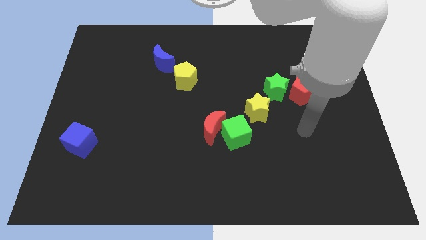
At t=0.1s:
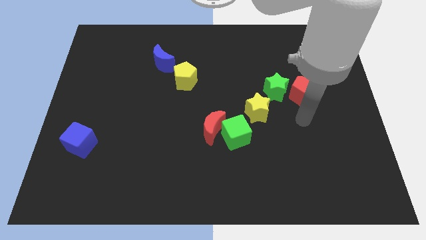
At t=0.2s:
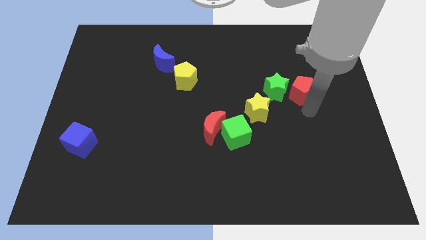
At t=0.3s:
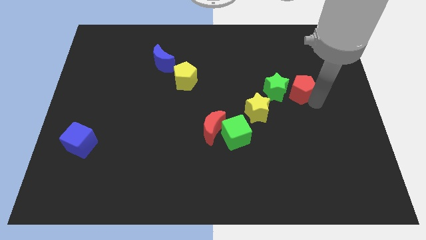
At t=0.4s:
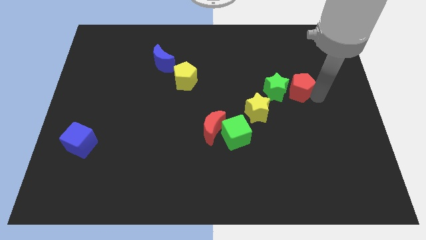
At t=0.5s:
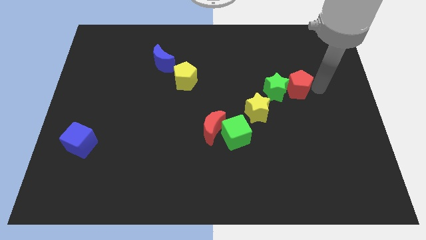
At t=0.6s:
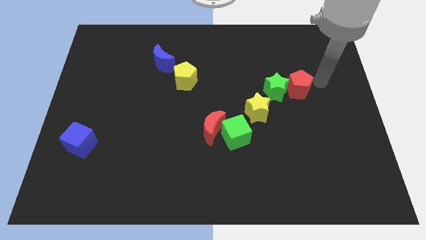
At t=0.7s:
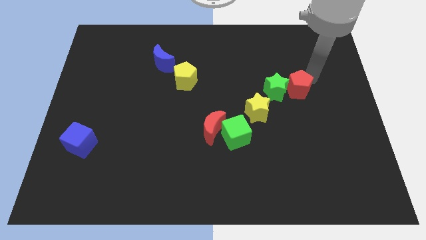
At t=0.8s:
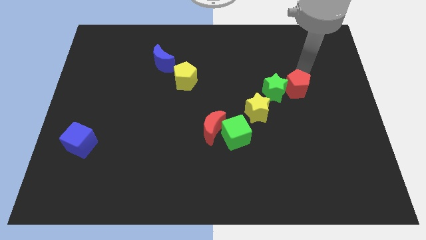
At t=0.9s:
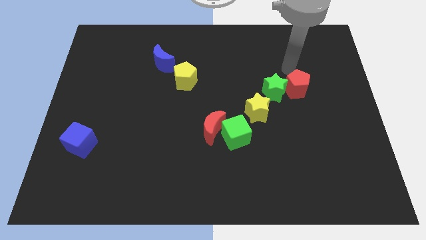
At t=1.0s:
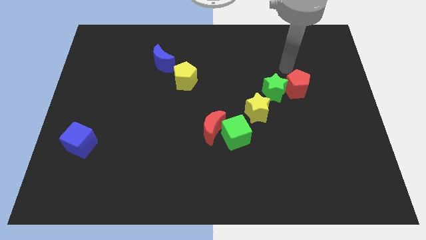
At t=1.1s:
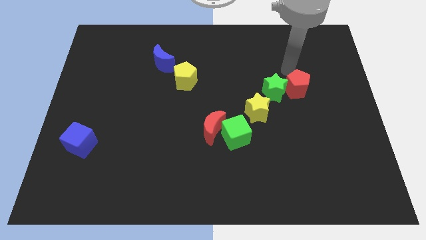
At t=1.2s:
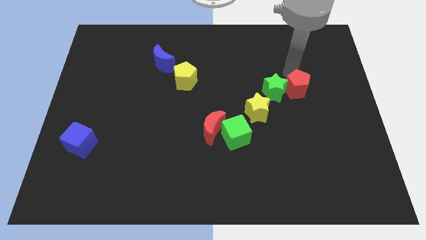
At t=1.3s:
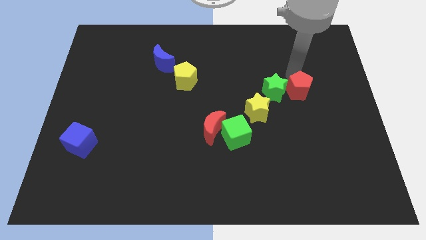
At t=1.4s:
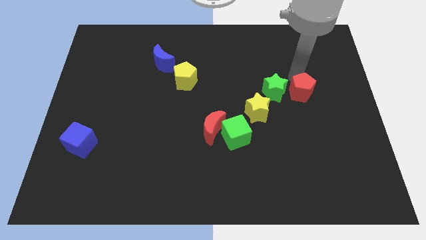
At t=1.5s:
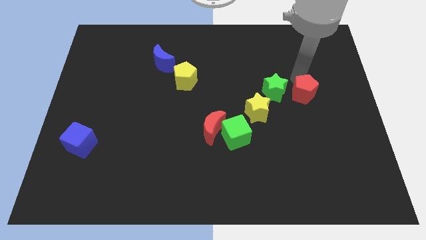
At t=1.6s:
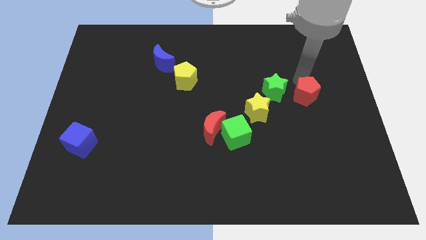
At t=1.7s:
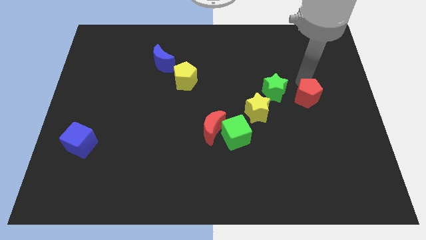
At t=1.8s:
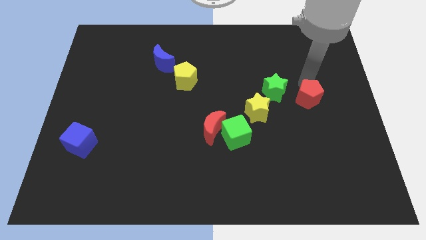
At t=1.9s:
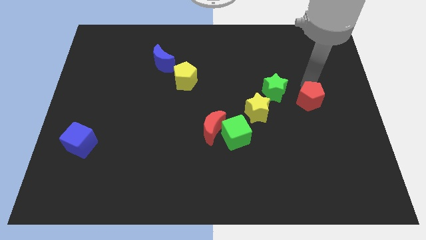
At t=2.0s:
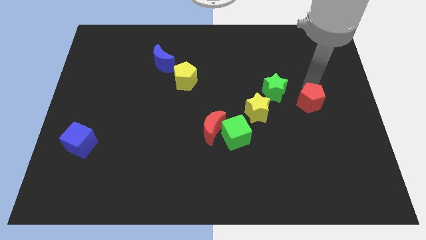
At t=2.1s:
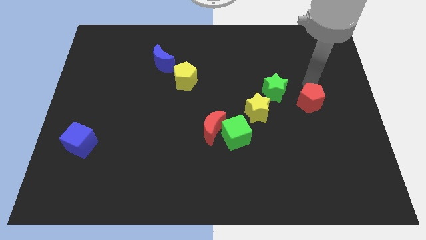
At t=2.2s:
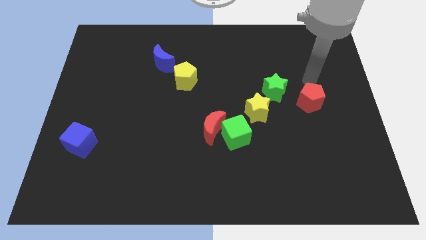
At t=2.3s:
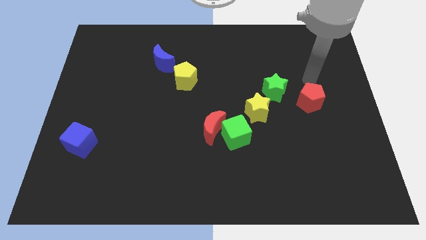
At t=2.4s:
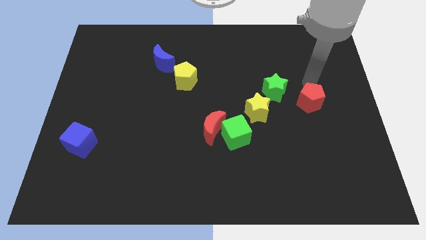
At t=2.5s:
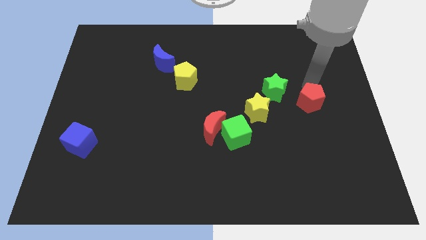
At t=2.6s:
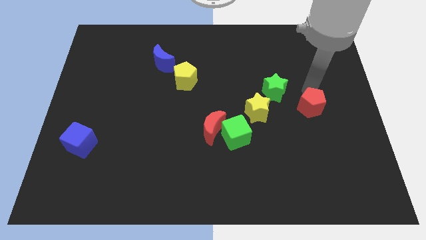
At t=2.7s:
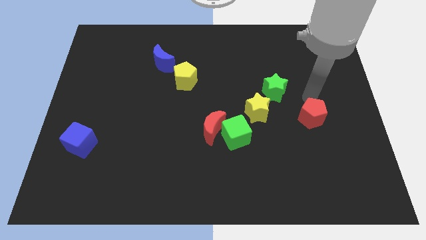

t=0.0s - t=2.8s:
slide the red pentagon downwards a bit

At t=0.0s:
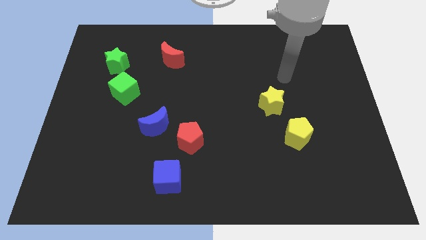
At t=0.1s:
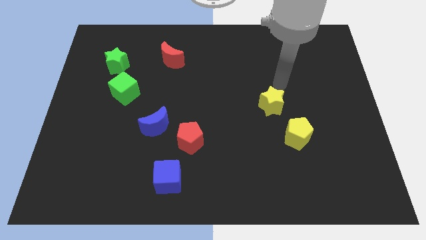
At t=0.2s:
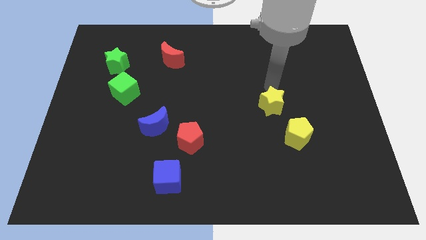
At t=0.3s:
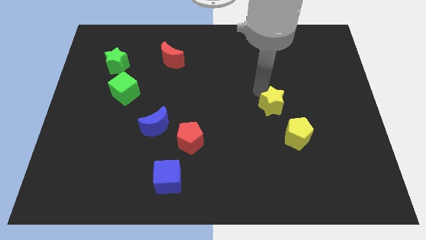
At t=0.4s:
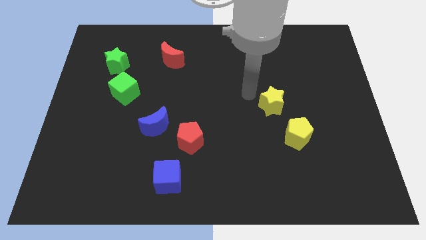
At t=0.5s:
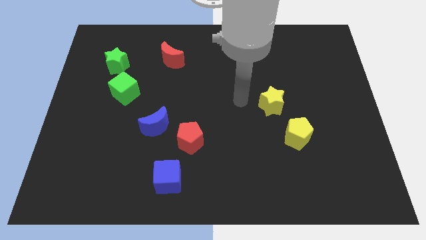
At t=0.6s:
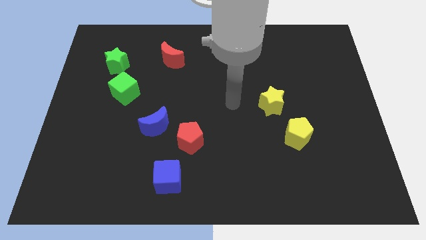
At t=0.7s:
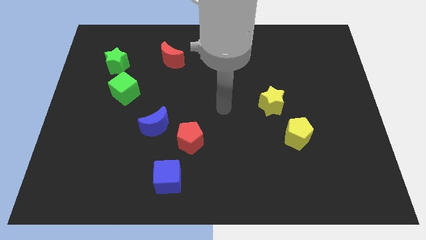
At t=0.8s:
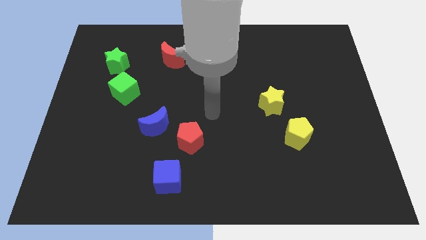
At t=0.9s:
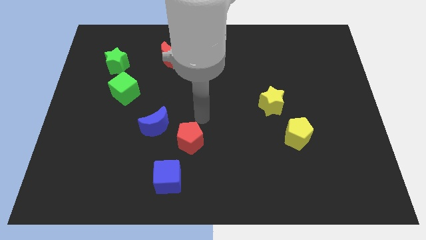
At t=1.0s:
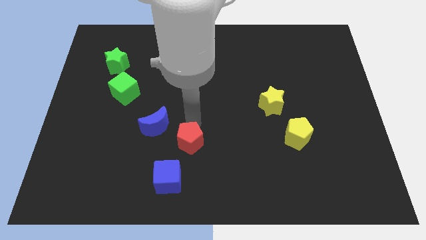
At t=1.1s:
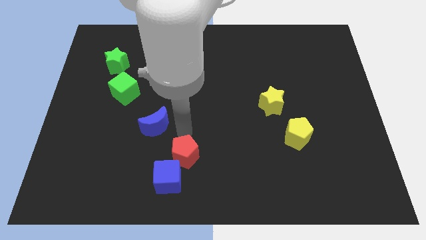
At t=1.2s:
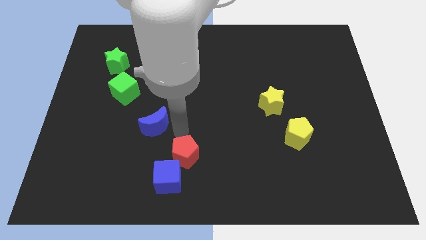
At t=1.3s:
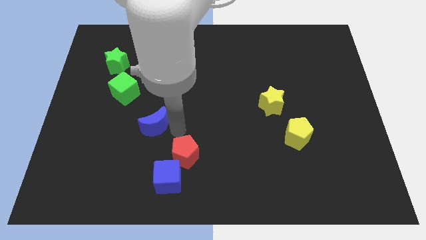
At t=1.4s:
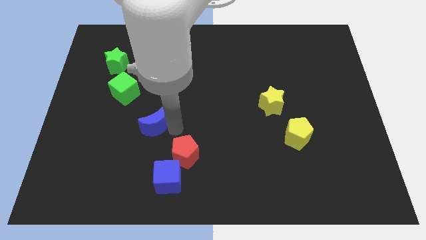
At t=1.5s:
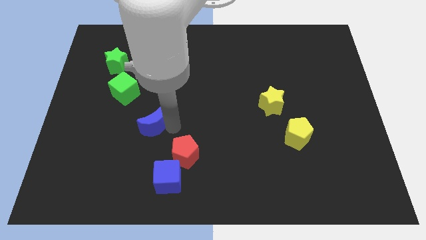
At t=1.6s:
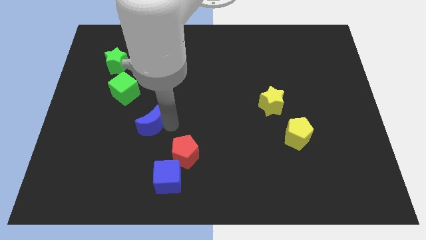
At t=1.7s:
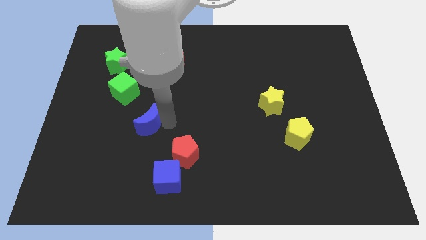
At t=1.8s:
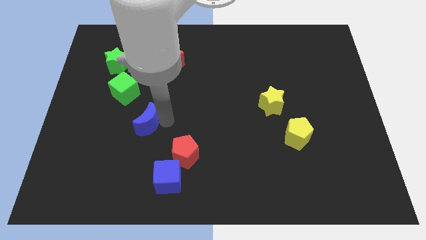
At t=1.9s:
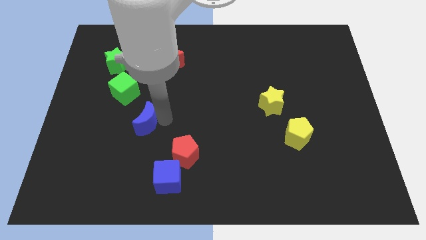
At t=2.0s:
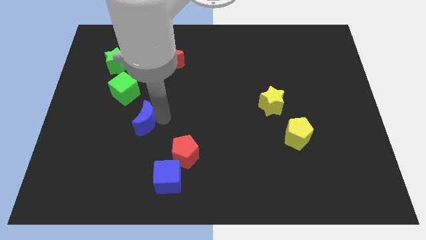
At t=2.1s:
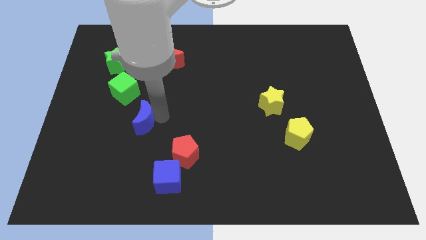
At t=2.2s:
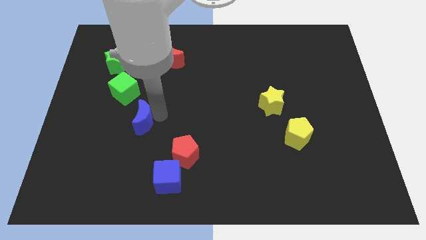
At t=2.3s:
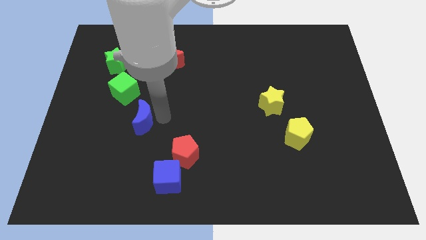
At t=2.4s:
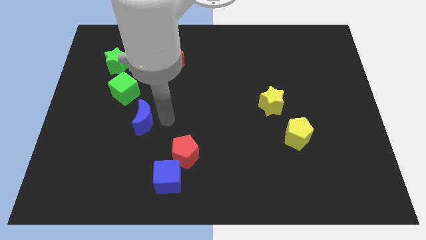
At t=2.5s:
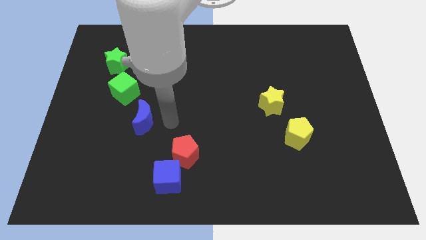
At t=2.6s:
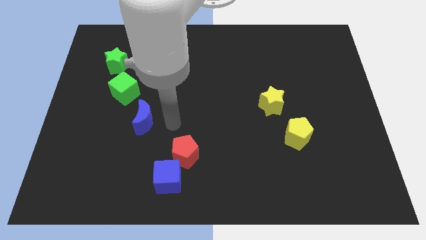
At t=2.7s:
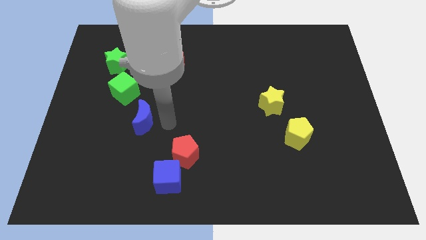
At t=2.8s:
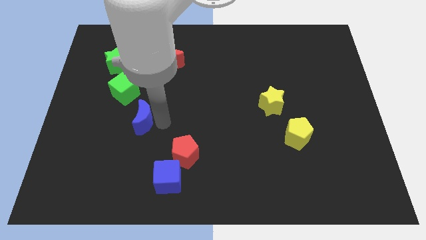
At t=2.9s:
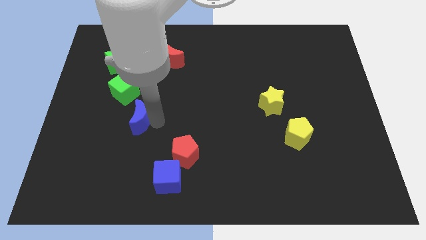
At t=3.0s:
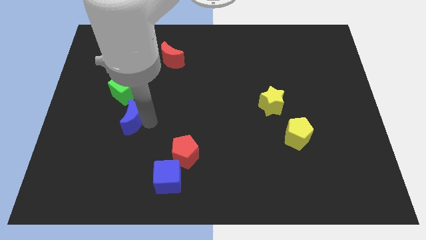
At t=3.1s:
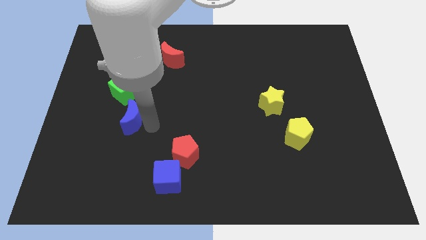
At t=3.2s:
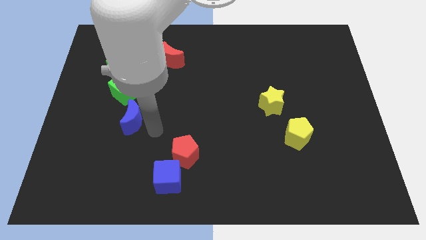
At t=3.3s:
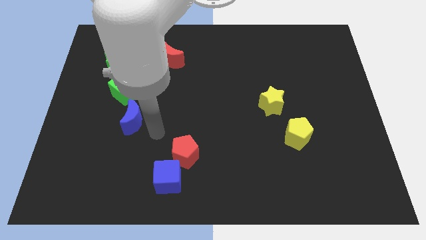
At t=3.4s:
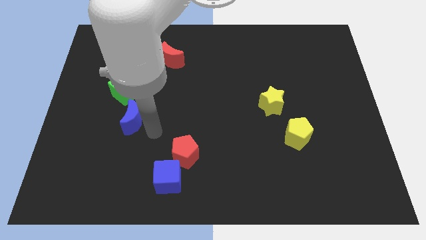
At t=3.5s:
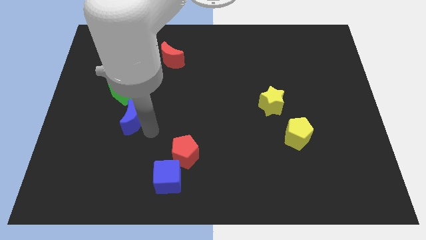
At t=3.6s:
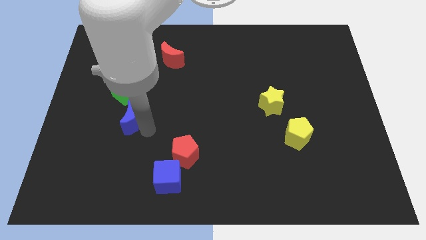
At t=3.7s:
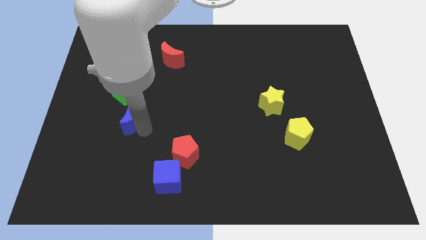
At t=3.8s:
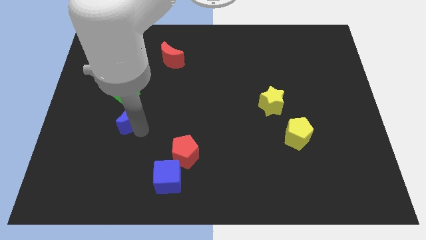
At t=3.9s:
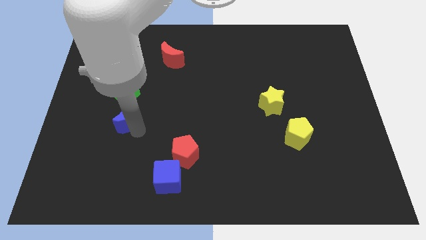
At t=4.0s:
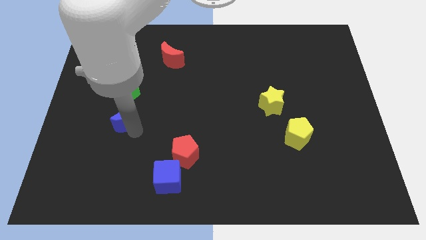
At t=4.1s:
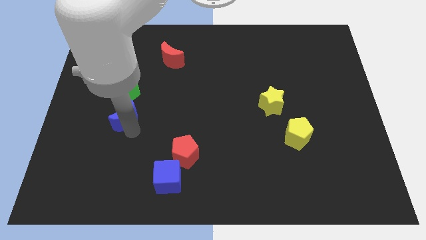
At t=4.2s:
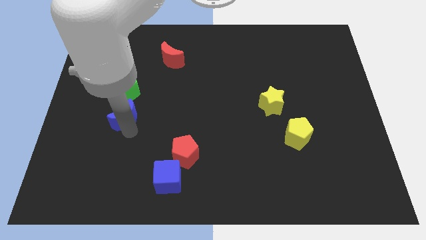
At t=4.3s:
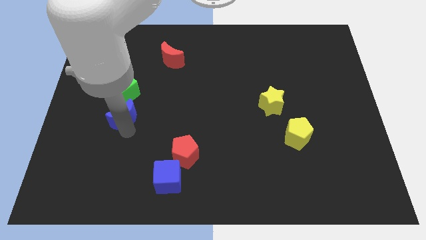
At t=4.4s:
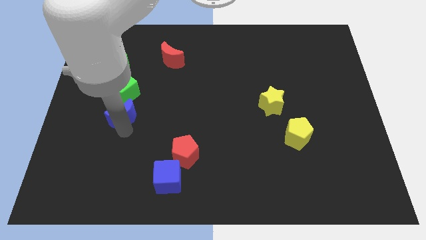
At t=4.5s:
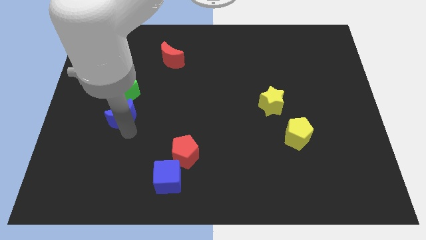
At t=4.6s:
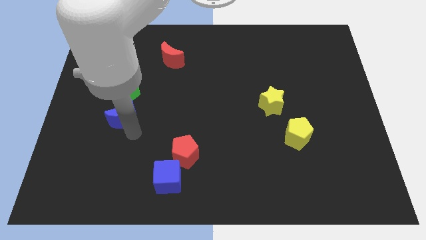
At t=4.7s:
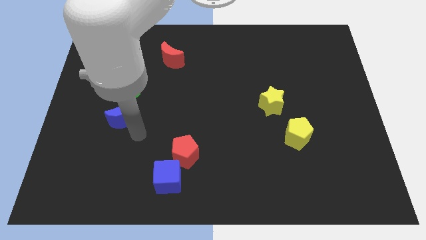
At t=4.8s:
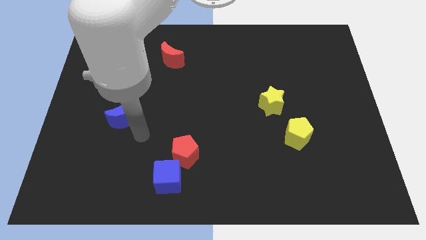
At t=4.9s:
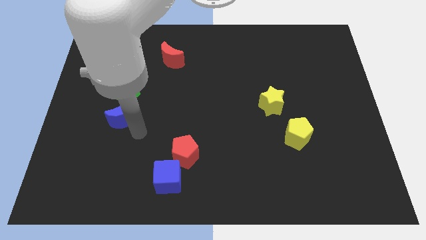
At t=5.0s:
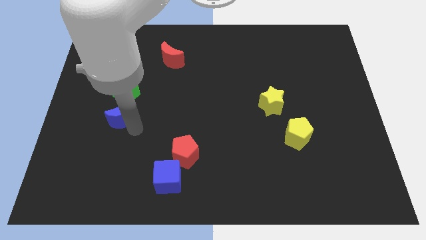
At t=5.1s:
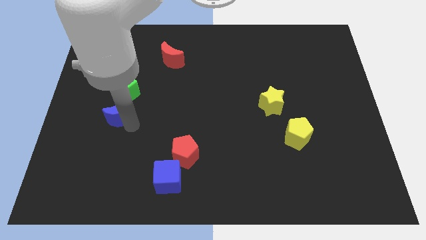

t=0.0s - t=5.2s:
slide the blue moon upwards and left a little bit
